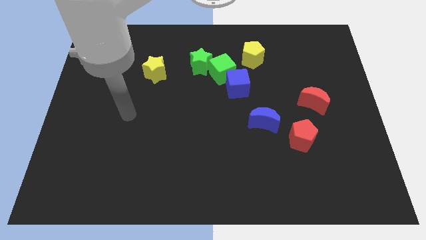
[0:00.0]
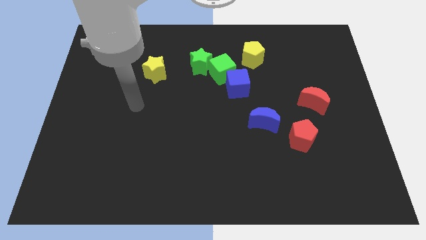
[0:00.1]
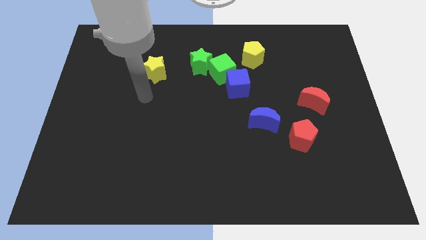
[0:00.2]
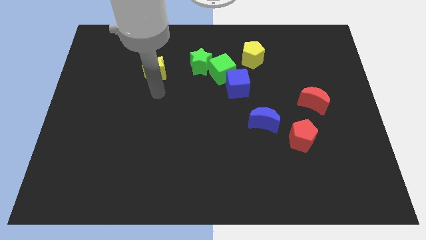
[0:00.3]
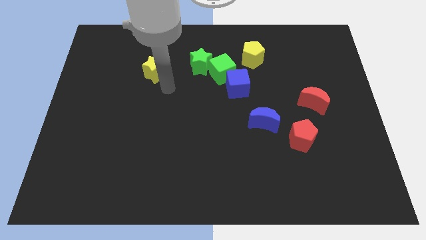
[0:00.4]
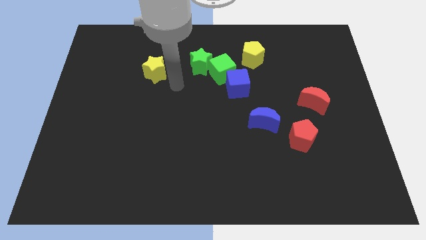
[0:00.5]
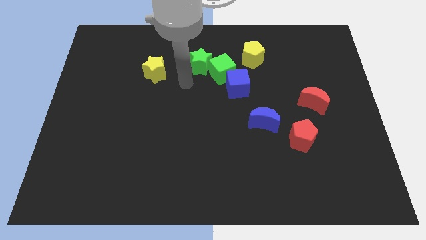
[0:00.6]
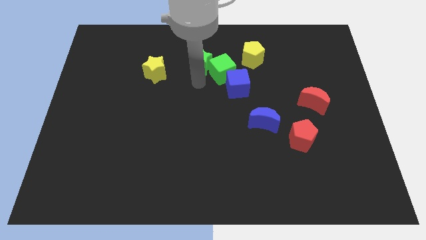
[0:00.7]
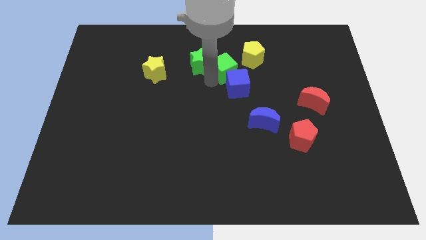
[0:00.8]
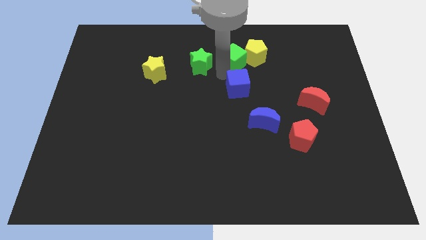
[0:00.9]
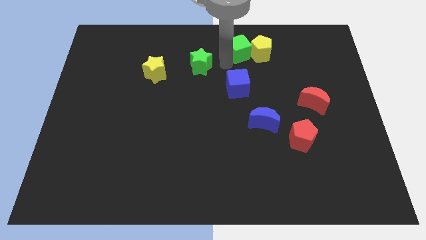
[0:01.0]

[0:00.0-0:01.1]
separate the green star from the green cube

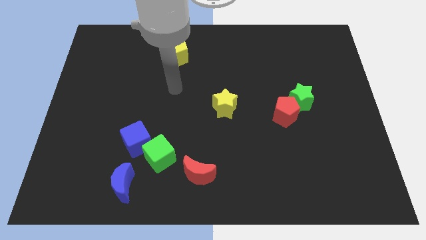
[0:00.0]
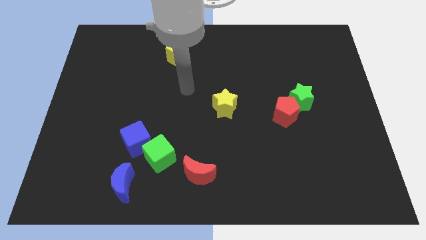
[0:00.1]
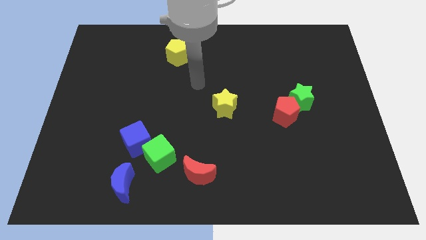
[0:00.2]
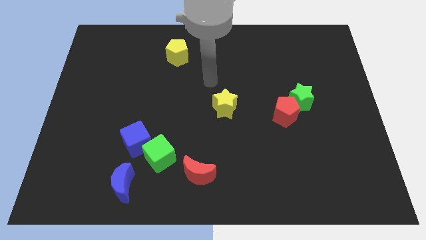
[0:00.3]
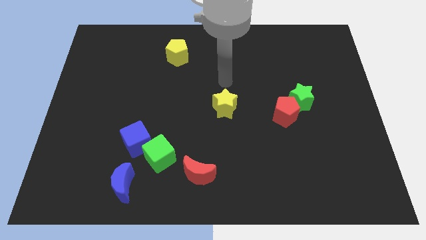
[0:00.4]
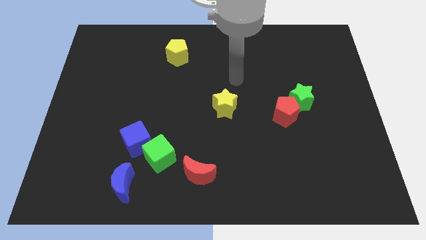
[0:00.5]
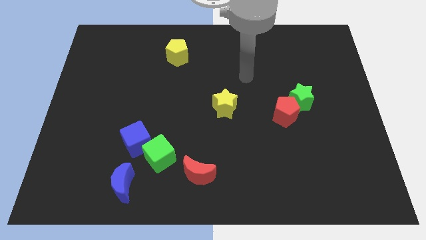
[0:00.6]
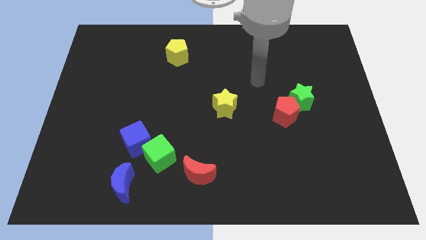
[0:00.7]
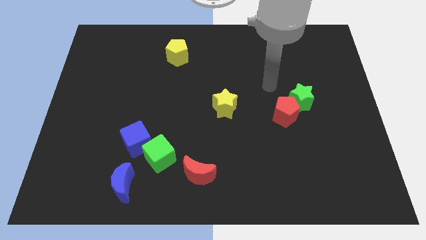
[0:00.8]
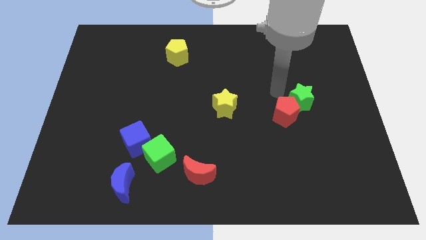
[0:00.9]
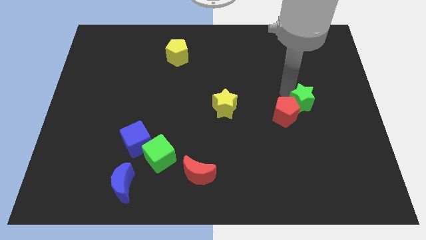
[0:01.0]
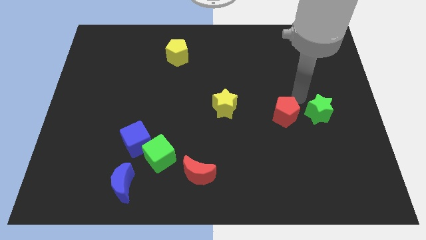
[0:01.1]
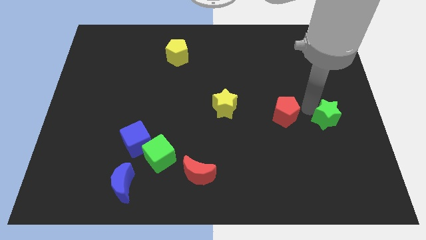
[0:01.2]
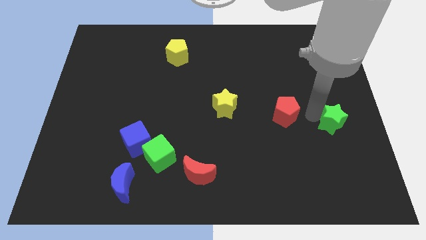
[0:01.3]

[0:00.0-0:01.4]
pull the red pentagon apart from the green star

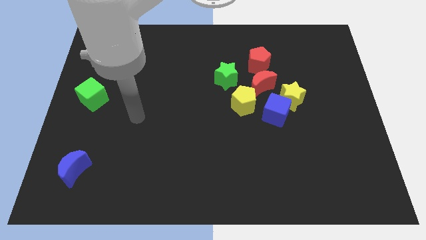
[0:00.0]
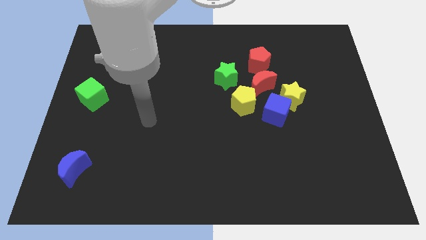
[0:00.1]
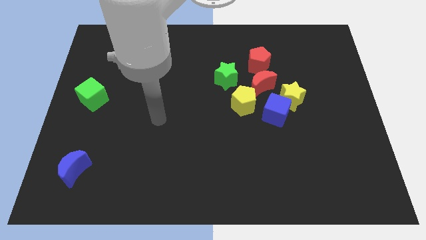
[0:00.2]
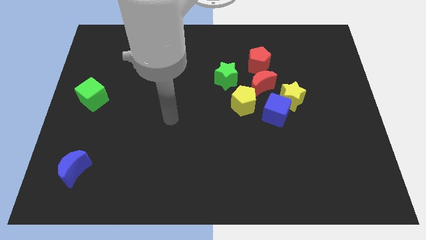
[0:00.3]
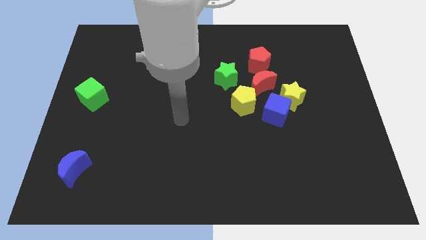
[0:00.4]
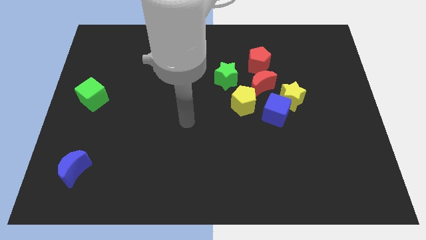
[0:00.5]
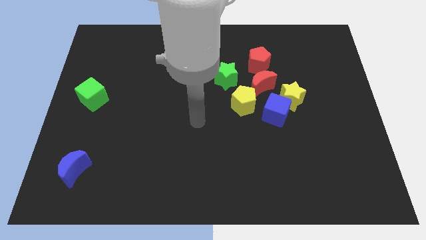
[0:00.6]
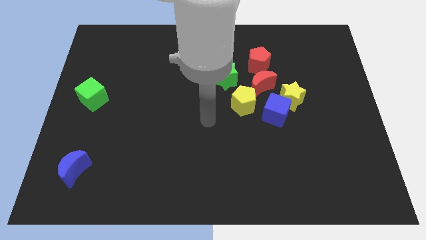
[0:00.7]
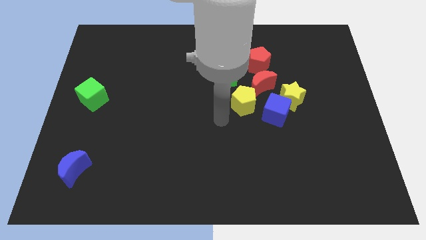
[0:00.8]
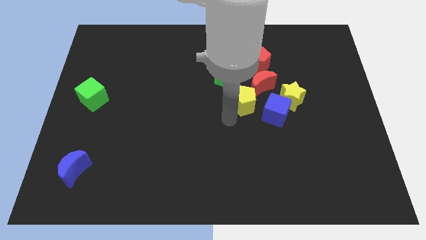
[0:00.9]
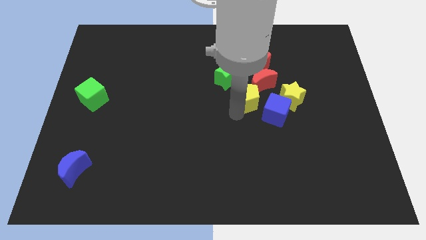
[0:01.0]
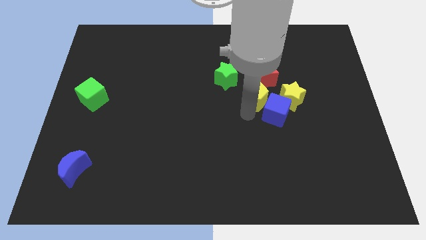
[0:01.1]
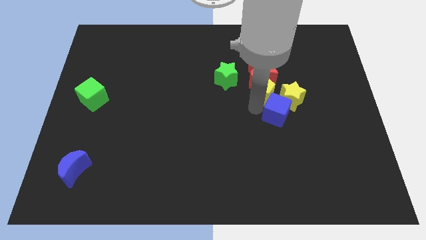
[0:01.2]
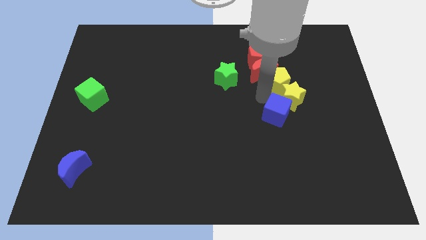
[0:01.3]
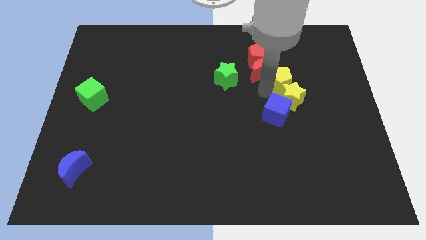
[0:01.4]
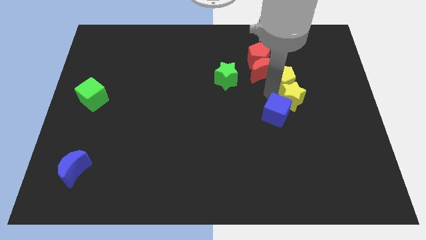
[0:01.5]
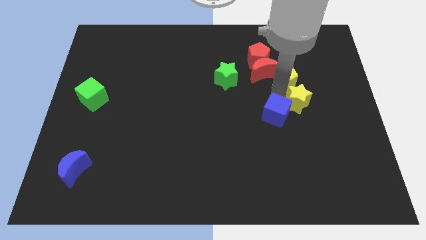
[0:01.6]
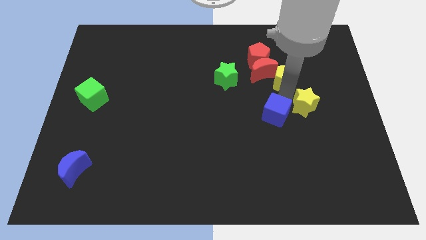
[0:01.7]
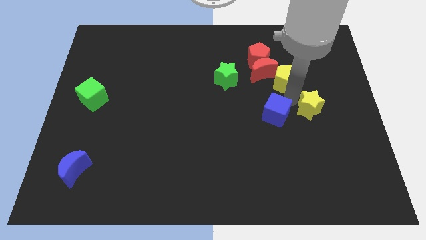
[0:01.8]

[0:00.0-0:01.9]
pull the yellow star apart from the blue cube and red moon

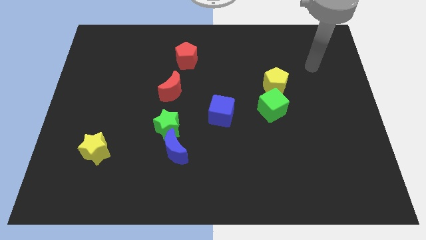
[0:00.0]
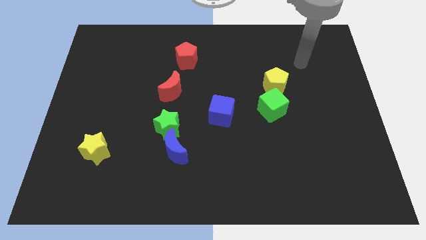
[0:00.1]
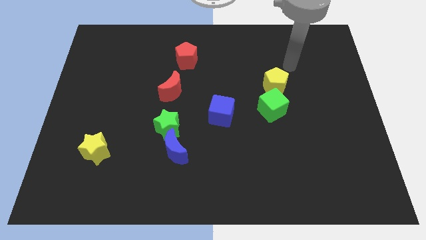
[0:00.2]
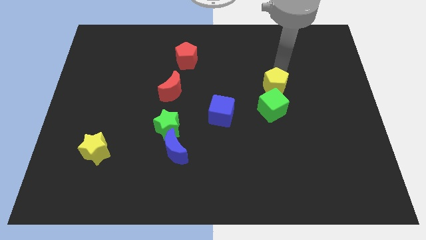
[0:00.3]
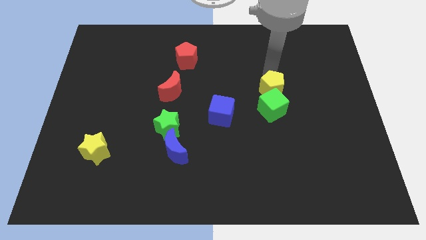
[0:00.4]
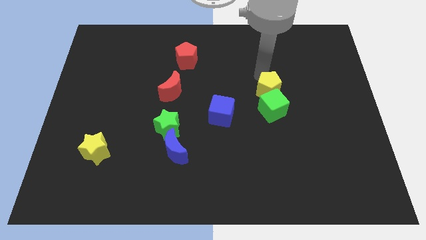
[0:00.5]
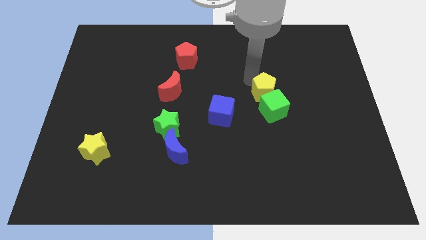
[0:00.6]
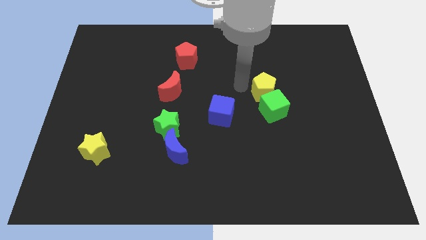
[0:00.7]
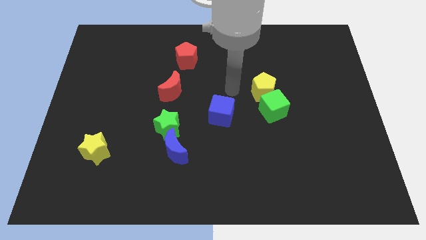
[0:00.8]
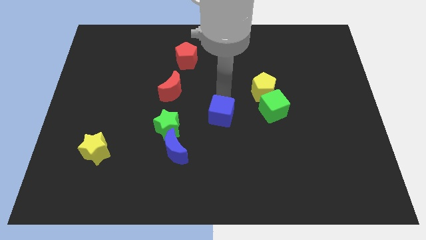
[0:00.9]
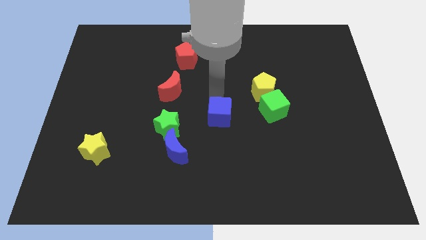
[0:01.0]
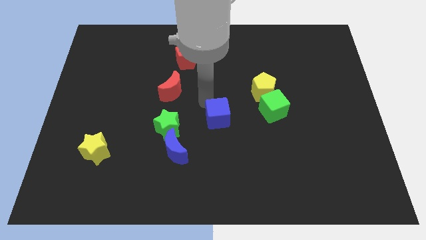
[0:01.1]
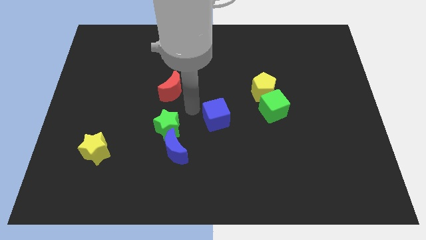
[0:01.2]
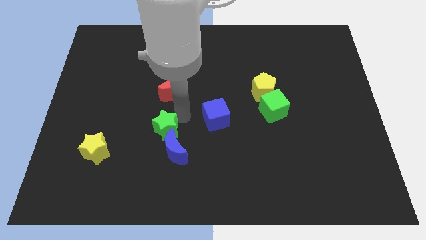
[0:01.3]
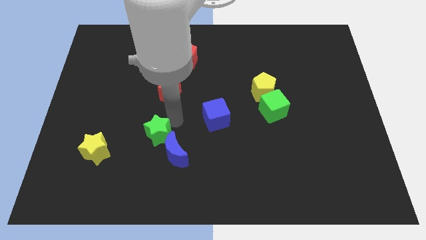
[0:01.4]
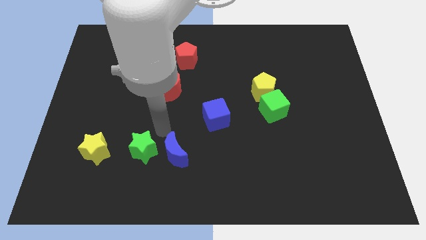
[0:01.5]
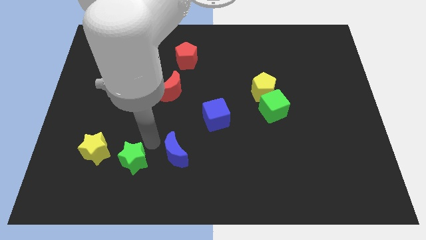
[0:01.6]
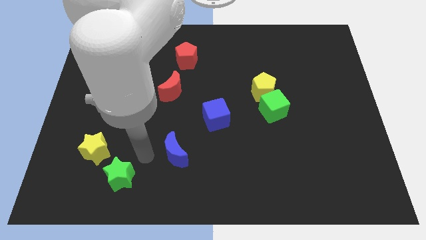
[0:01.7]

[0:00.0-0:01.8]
pull the blue moon apart from the green star

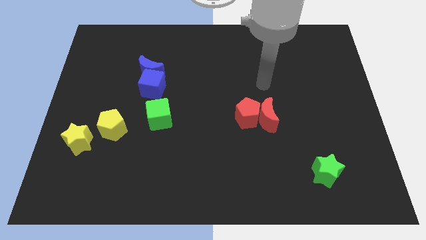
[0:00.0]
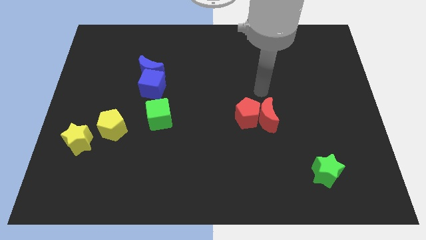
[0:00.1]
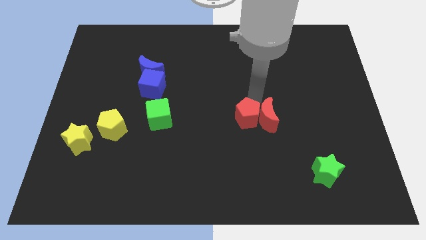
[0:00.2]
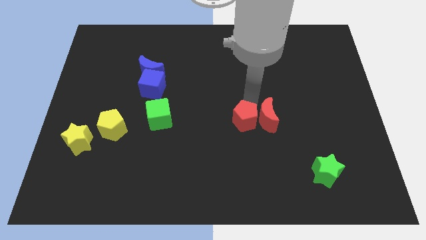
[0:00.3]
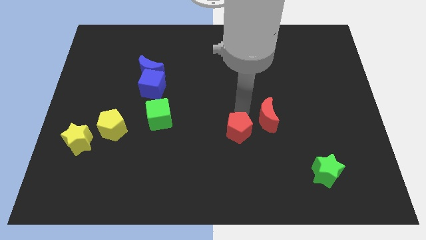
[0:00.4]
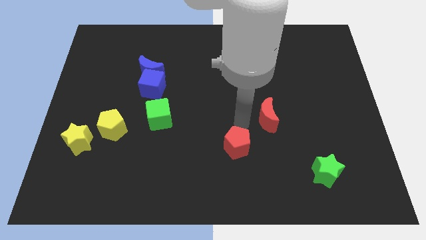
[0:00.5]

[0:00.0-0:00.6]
move the red moon away from the red pentagon

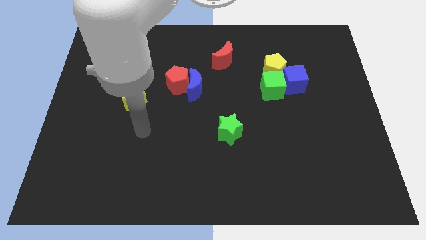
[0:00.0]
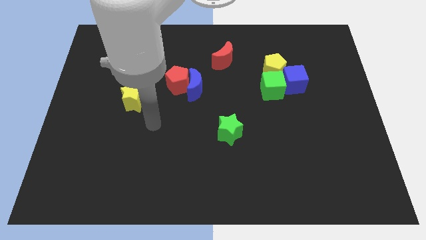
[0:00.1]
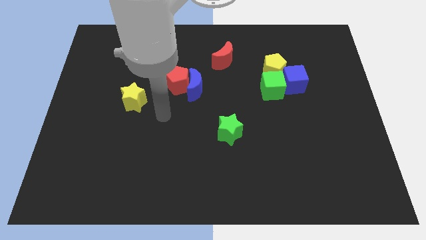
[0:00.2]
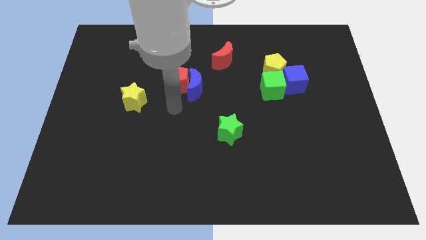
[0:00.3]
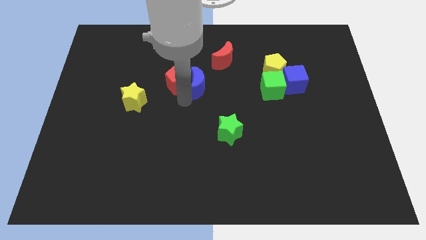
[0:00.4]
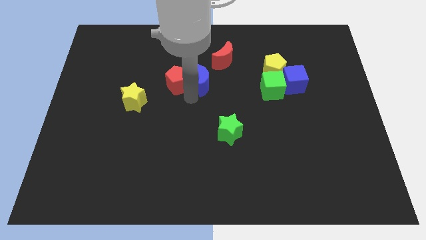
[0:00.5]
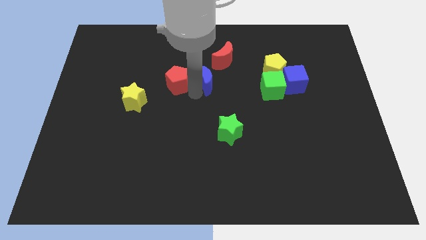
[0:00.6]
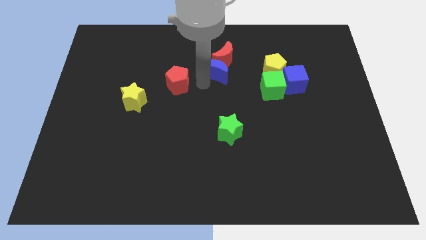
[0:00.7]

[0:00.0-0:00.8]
move the red pentagon away from the blue moon

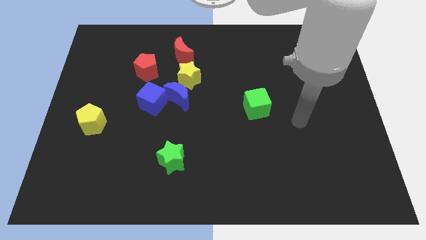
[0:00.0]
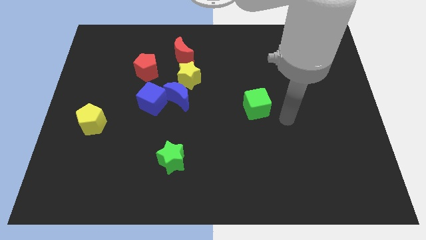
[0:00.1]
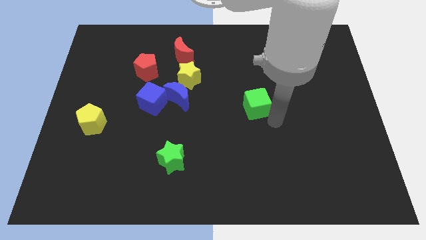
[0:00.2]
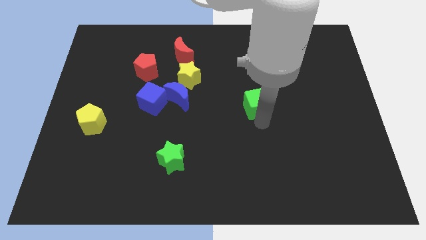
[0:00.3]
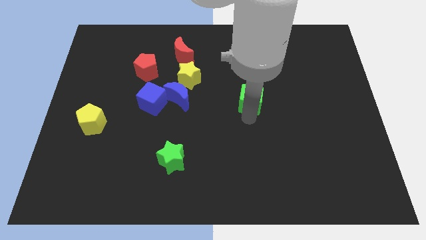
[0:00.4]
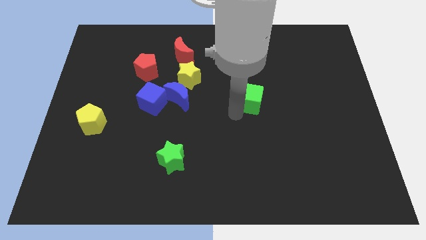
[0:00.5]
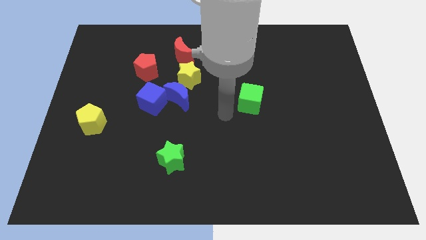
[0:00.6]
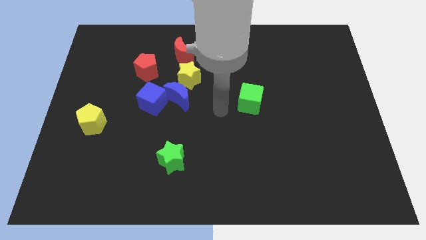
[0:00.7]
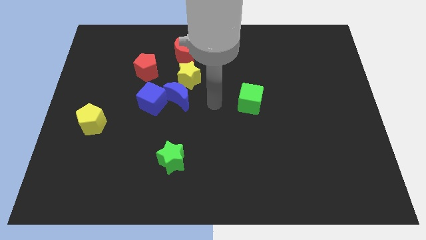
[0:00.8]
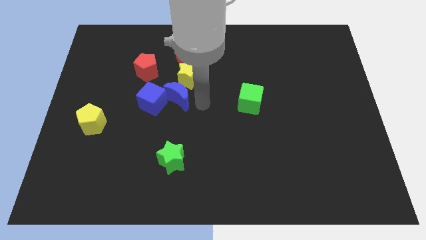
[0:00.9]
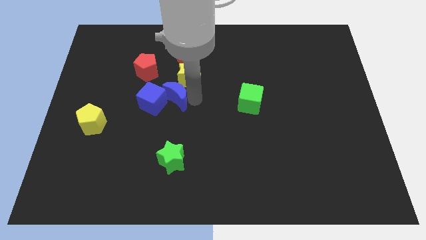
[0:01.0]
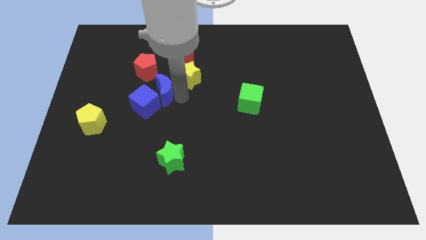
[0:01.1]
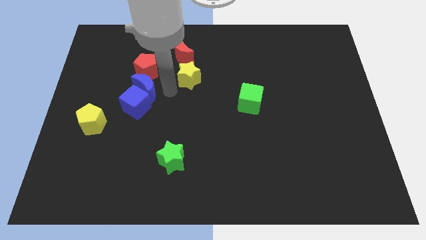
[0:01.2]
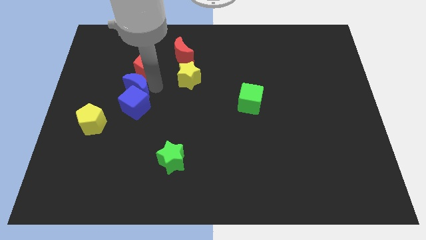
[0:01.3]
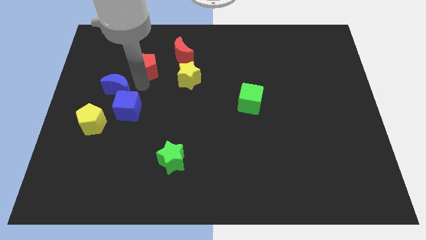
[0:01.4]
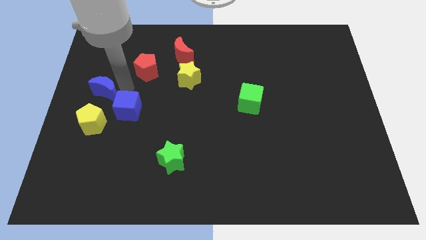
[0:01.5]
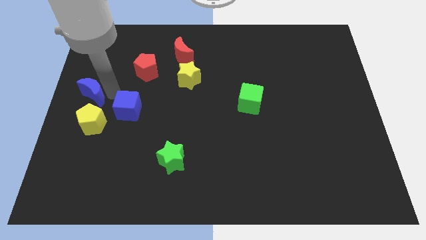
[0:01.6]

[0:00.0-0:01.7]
move the blue cube away from the blue moon

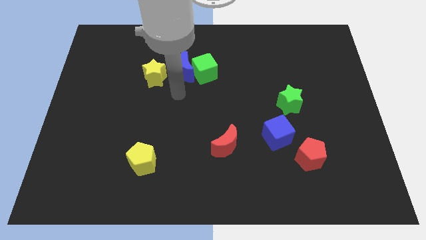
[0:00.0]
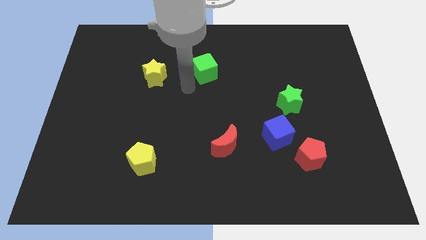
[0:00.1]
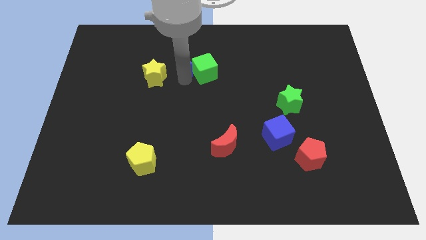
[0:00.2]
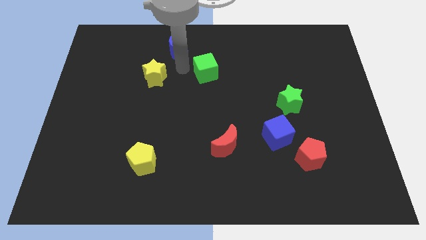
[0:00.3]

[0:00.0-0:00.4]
separate the green cube from the blue moon
